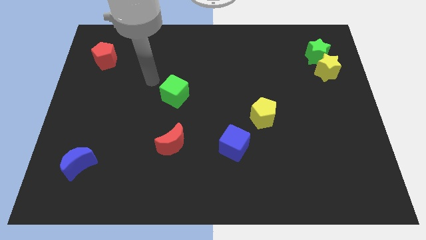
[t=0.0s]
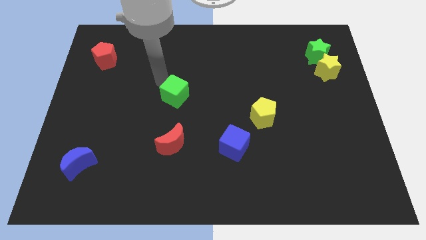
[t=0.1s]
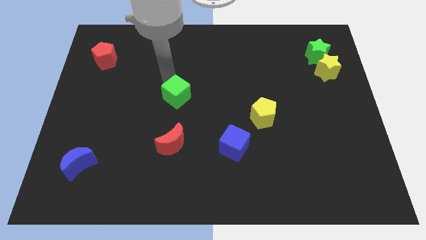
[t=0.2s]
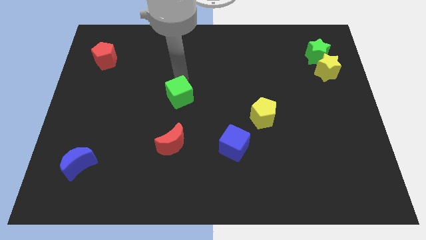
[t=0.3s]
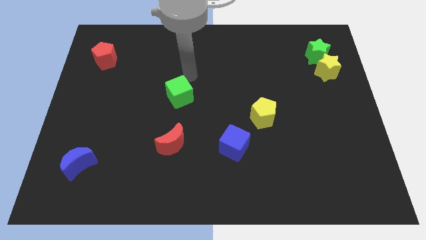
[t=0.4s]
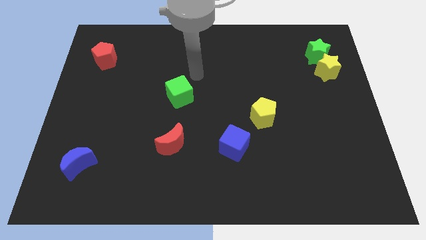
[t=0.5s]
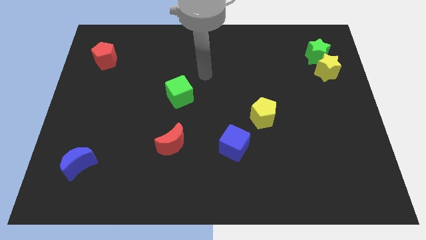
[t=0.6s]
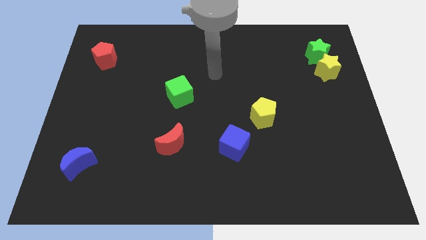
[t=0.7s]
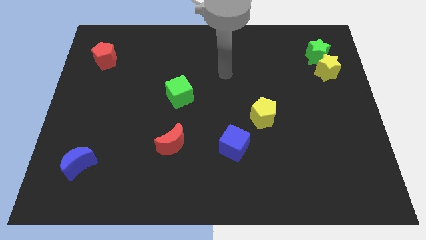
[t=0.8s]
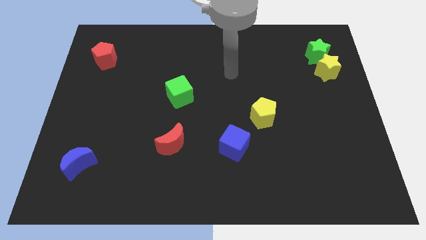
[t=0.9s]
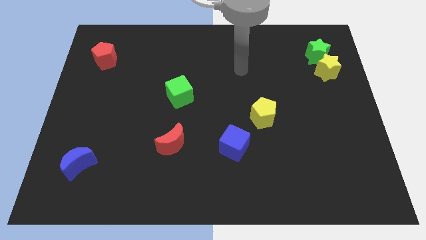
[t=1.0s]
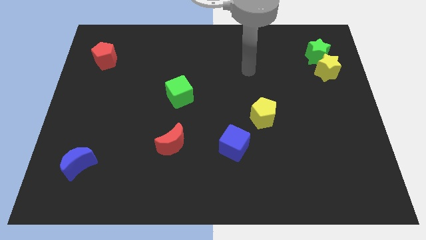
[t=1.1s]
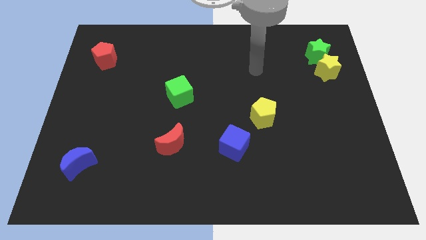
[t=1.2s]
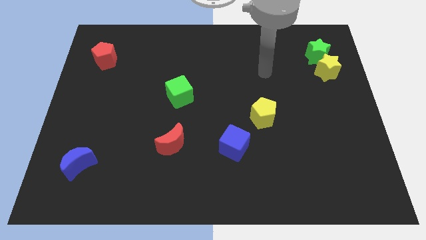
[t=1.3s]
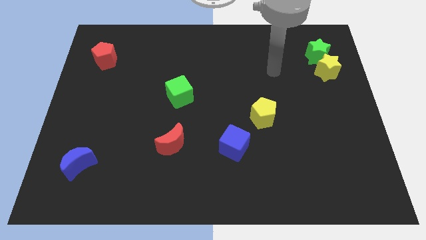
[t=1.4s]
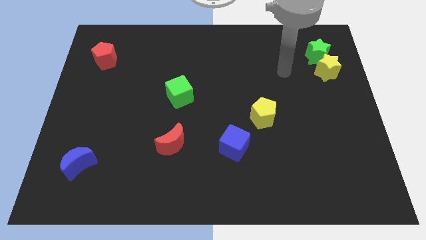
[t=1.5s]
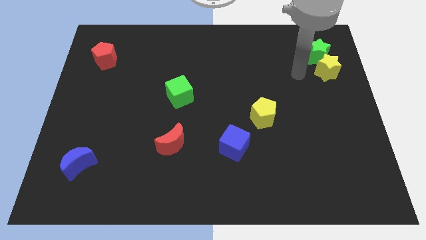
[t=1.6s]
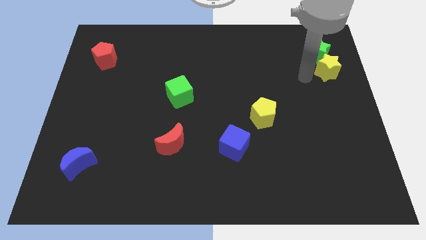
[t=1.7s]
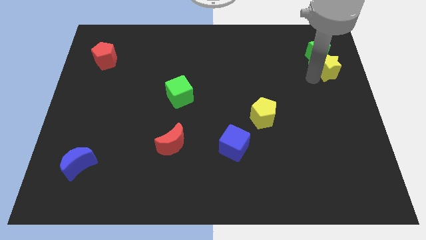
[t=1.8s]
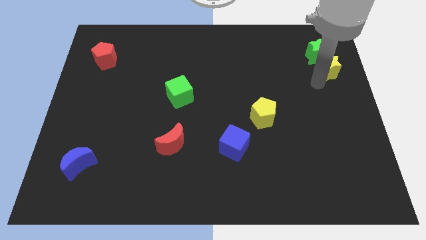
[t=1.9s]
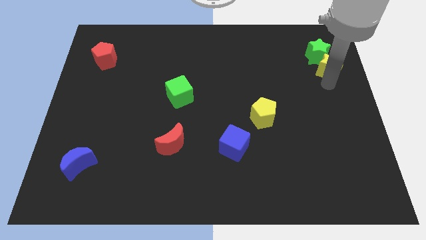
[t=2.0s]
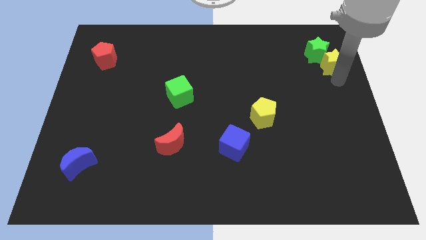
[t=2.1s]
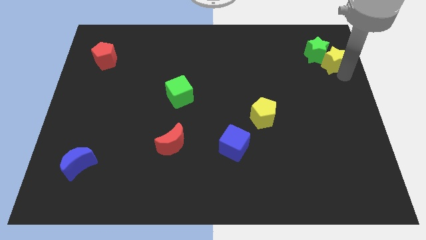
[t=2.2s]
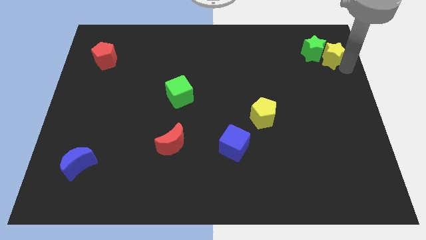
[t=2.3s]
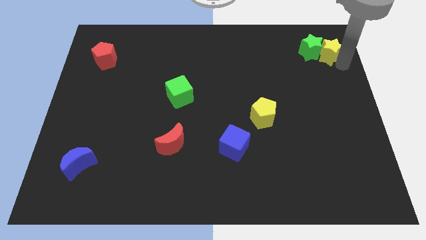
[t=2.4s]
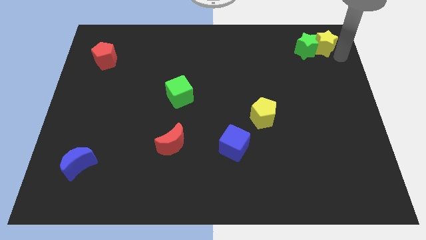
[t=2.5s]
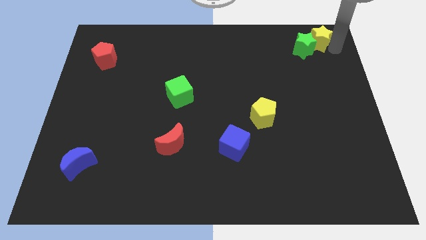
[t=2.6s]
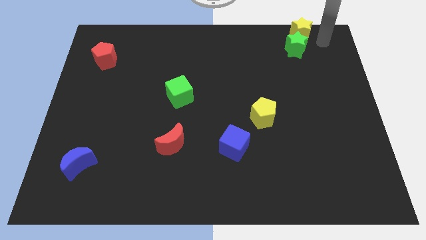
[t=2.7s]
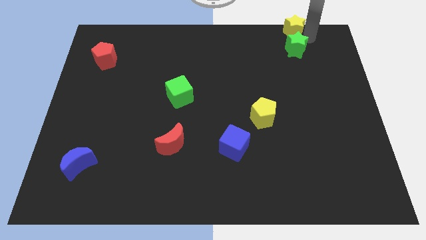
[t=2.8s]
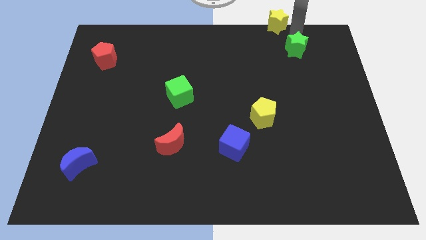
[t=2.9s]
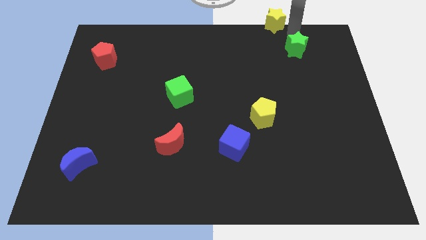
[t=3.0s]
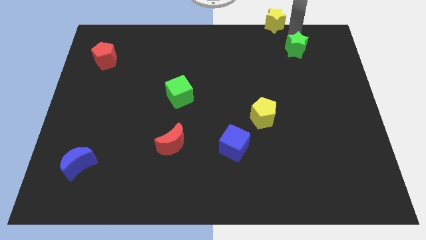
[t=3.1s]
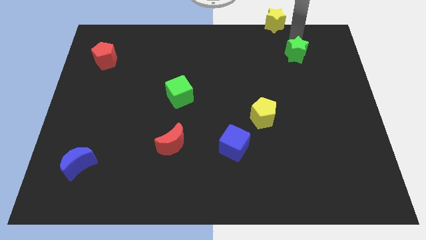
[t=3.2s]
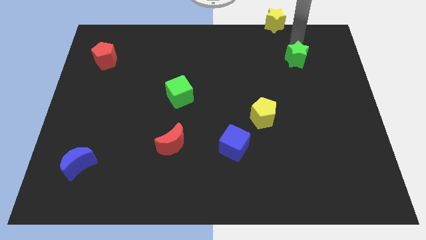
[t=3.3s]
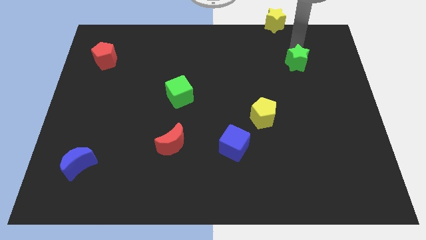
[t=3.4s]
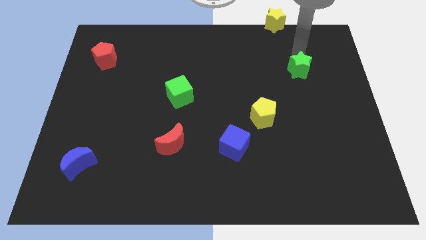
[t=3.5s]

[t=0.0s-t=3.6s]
move the green star diagonally down and left a little

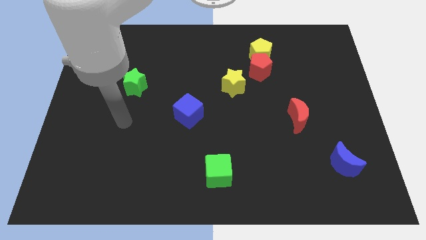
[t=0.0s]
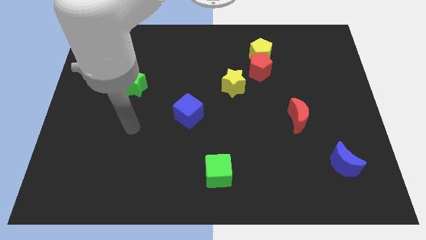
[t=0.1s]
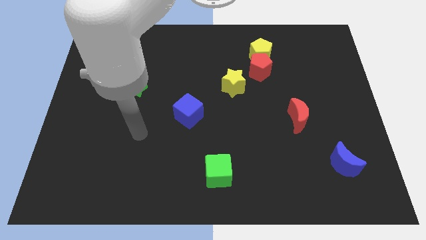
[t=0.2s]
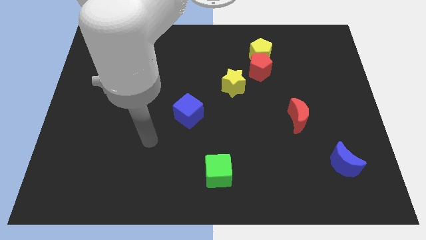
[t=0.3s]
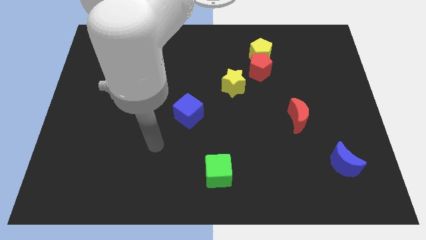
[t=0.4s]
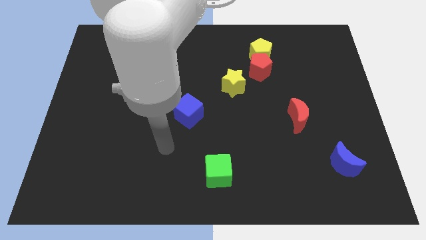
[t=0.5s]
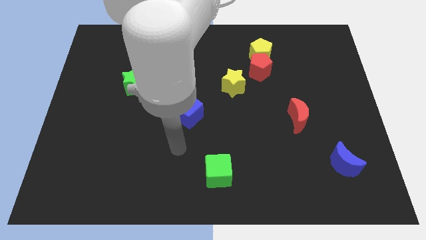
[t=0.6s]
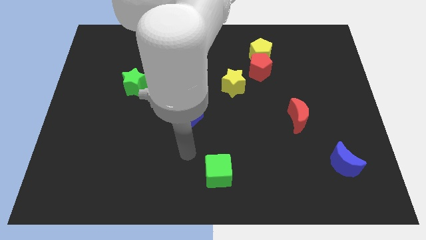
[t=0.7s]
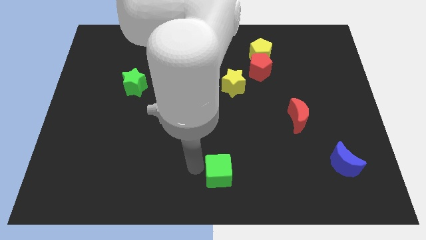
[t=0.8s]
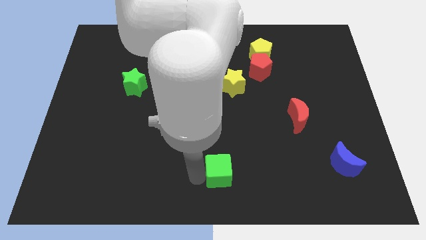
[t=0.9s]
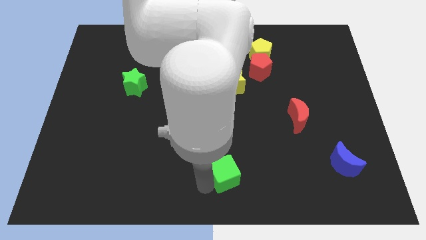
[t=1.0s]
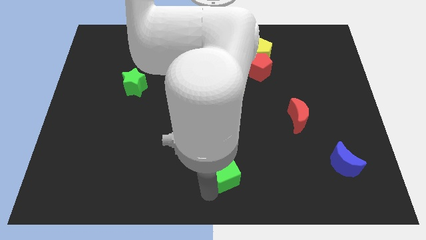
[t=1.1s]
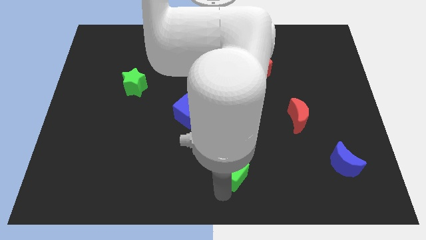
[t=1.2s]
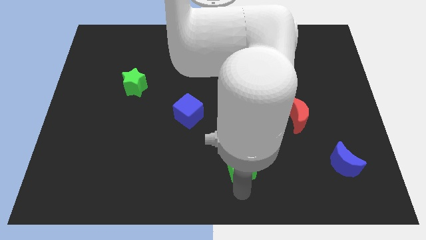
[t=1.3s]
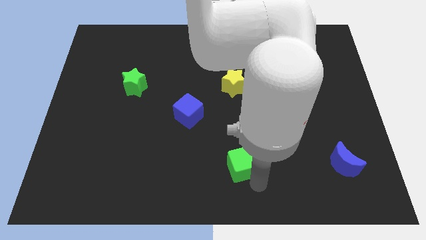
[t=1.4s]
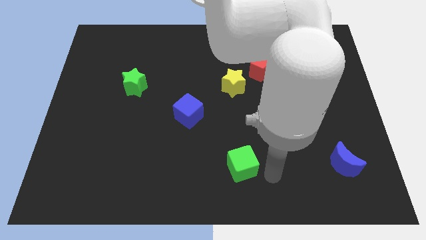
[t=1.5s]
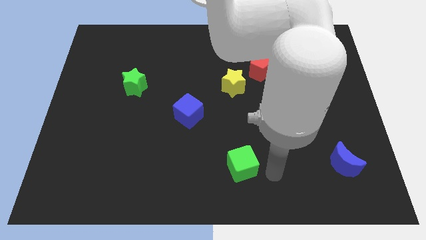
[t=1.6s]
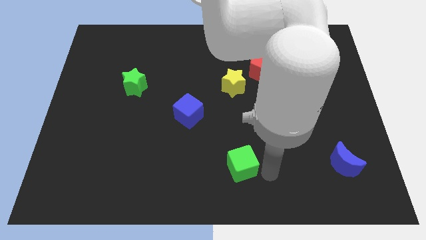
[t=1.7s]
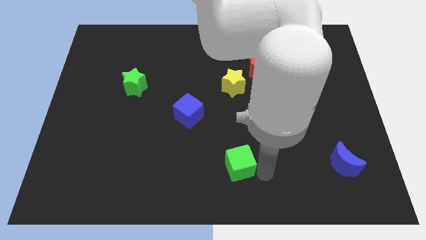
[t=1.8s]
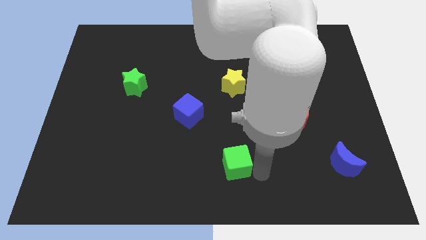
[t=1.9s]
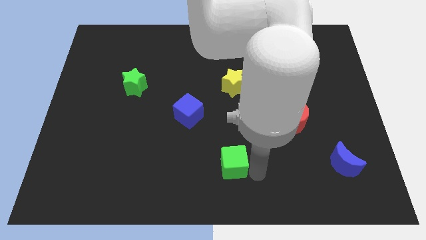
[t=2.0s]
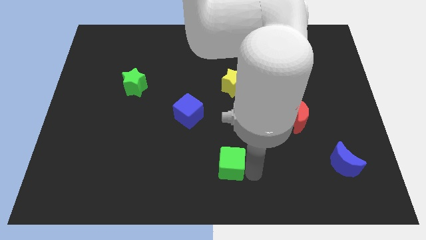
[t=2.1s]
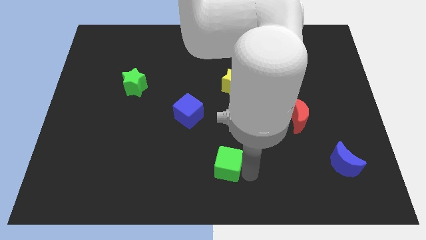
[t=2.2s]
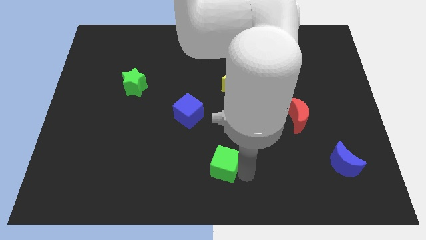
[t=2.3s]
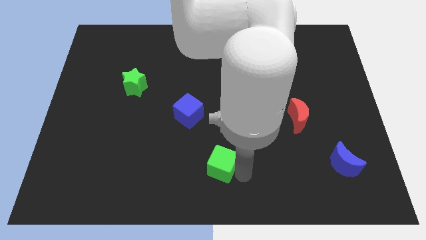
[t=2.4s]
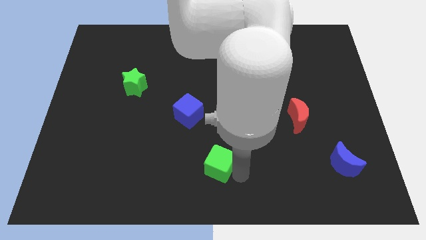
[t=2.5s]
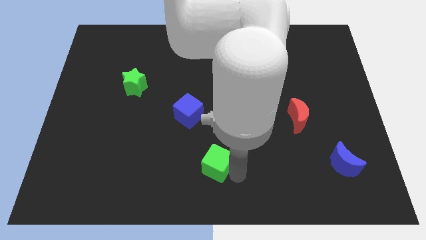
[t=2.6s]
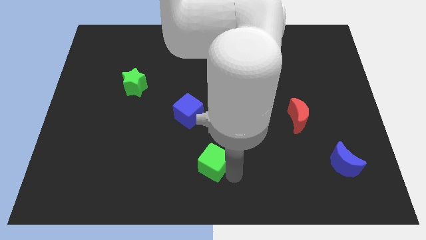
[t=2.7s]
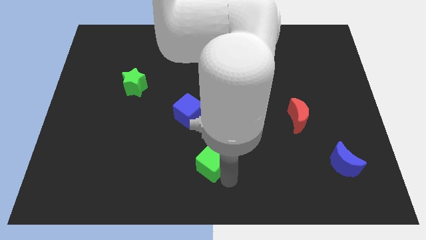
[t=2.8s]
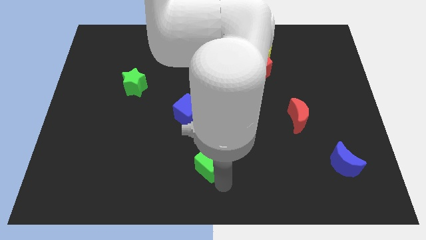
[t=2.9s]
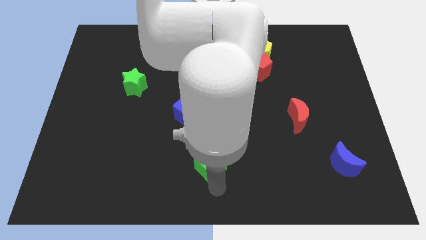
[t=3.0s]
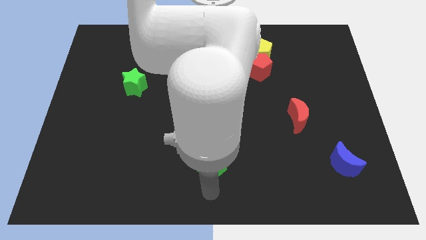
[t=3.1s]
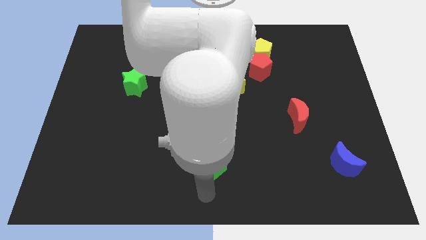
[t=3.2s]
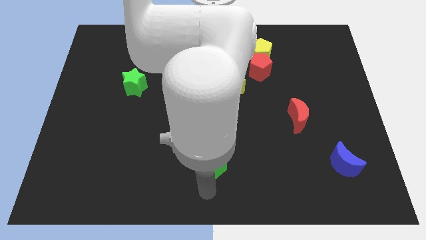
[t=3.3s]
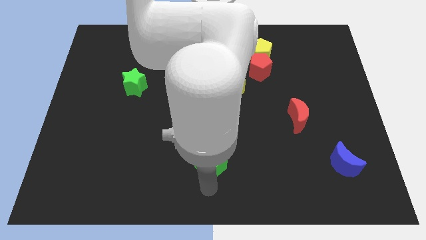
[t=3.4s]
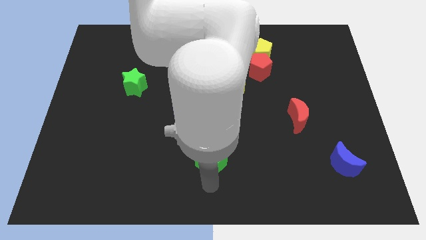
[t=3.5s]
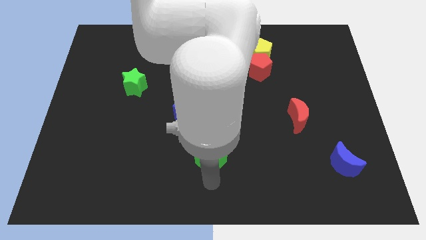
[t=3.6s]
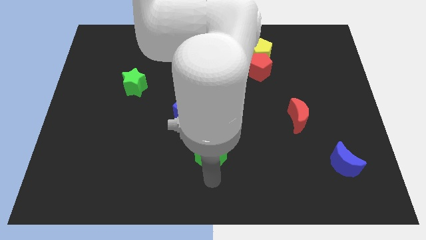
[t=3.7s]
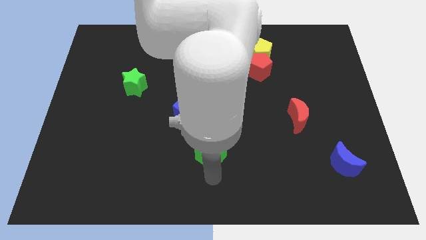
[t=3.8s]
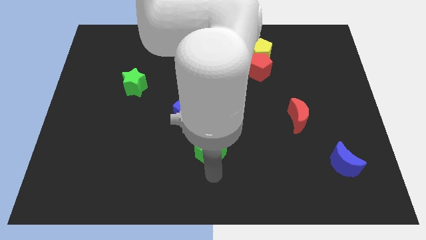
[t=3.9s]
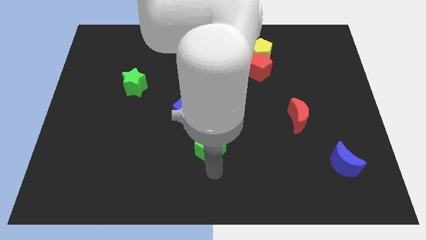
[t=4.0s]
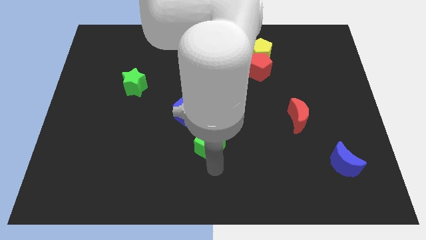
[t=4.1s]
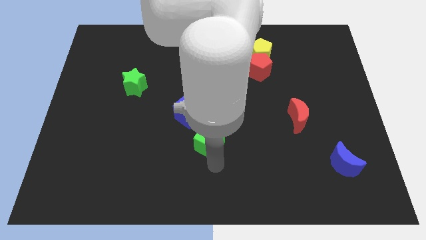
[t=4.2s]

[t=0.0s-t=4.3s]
push the green cube upwards somewhat
